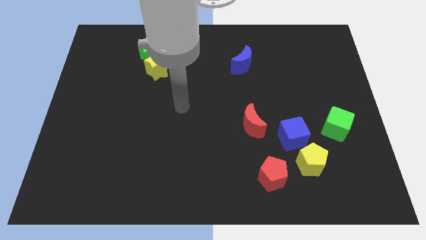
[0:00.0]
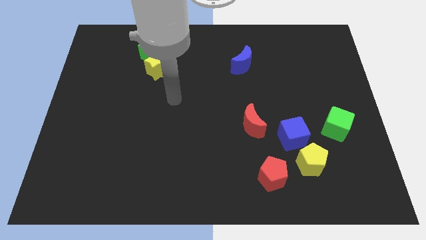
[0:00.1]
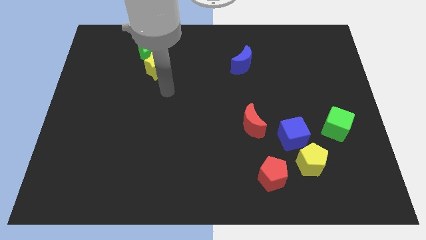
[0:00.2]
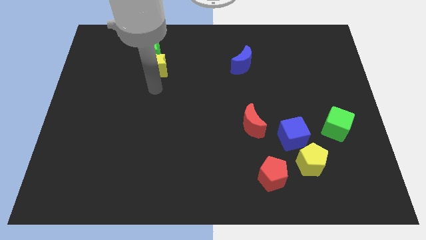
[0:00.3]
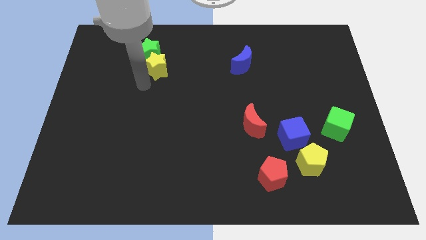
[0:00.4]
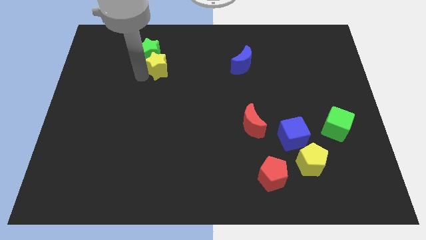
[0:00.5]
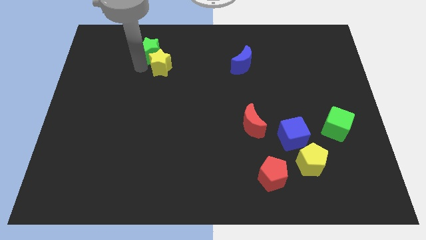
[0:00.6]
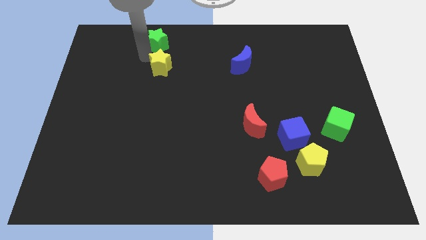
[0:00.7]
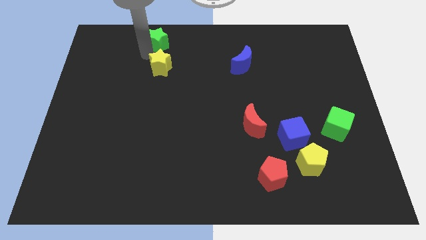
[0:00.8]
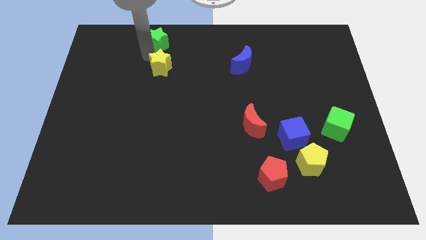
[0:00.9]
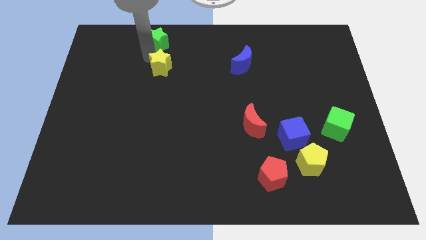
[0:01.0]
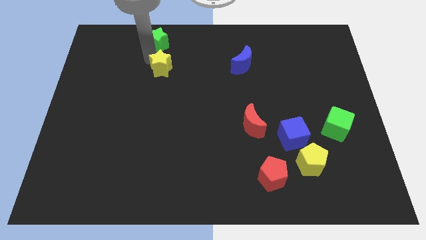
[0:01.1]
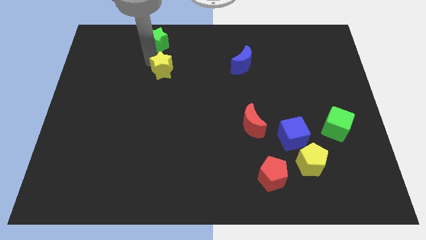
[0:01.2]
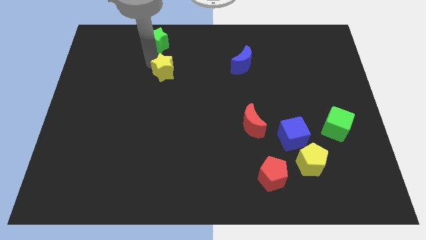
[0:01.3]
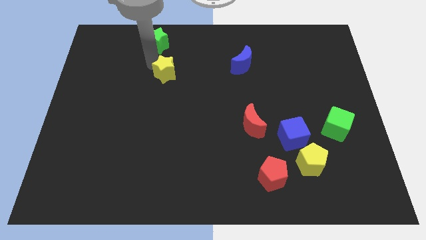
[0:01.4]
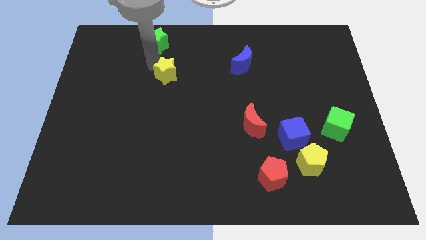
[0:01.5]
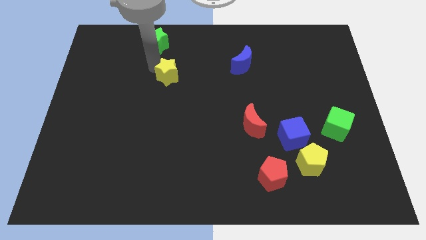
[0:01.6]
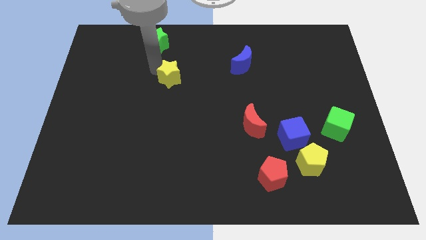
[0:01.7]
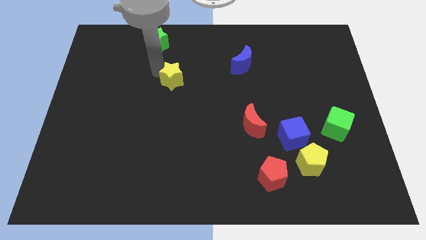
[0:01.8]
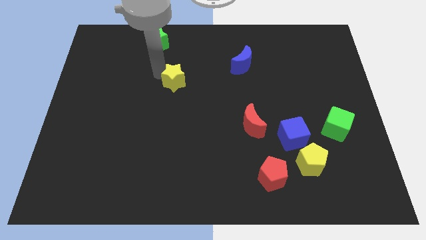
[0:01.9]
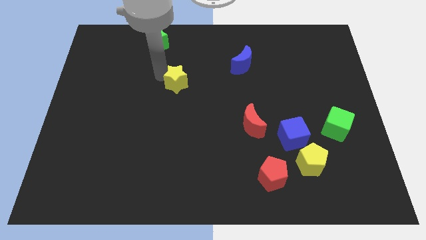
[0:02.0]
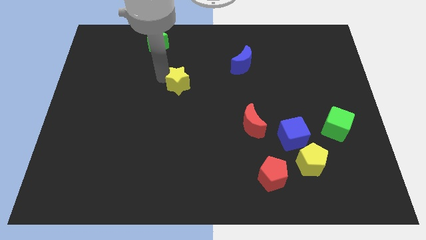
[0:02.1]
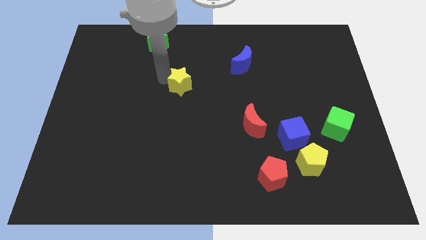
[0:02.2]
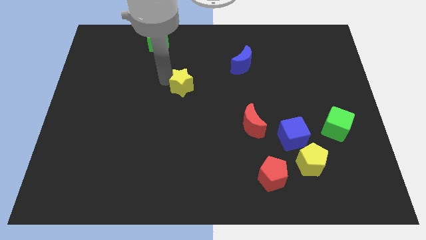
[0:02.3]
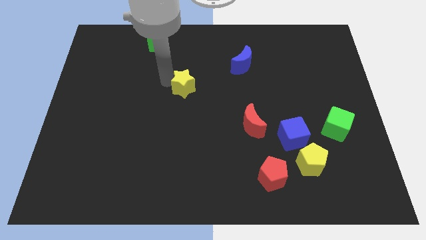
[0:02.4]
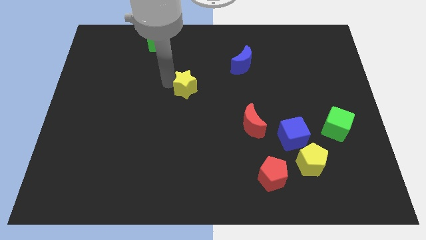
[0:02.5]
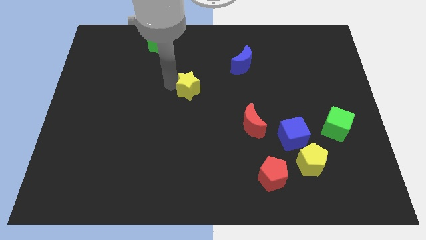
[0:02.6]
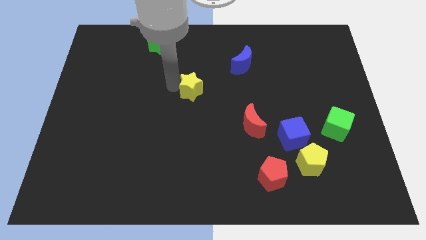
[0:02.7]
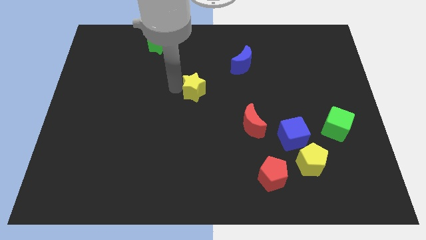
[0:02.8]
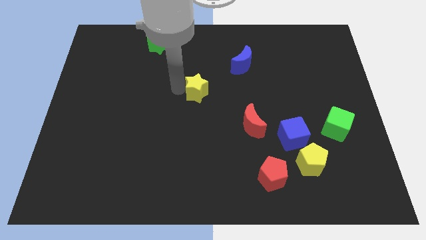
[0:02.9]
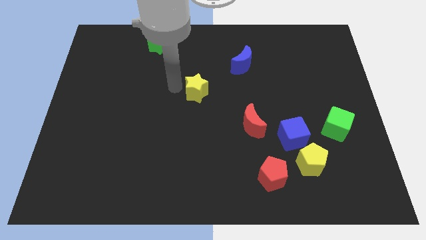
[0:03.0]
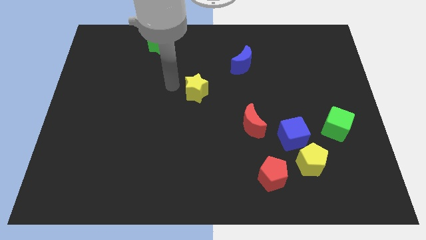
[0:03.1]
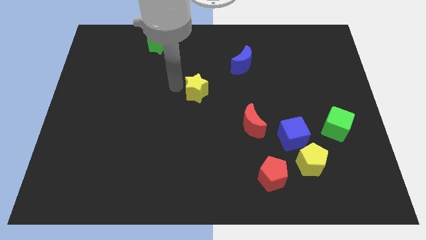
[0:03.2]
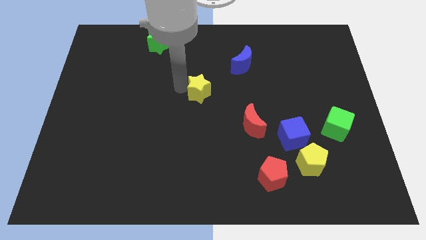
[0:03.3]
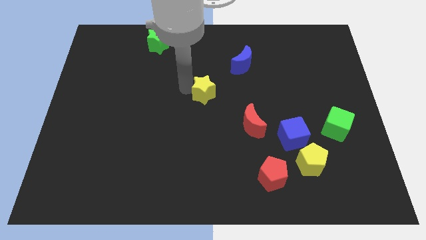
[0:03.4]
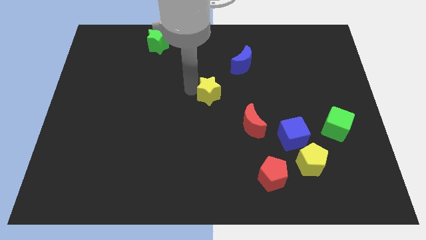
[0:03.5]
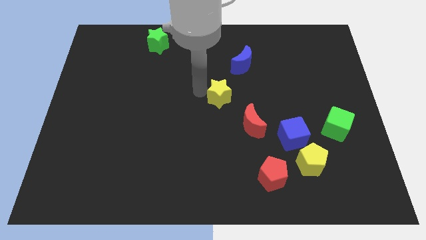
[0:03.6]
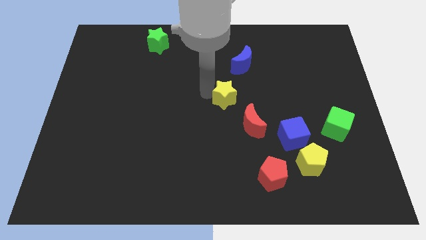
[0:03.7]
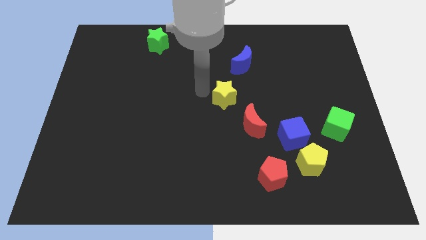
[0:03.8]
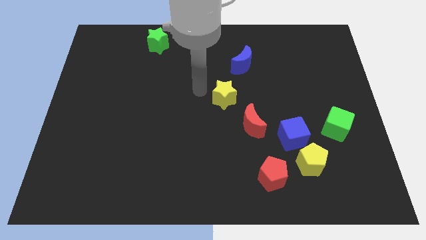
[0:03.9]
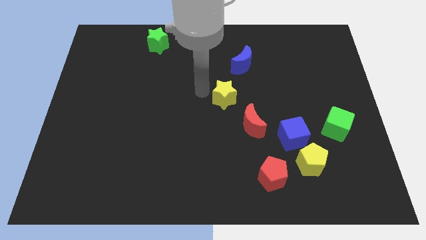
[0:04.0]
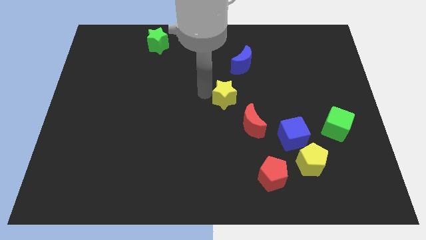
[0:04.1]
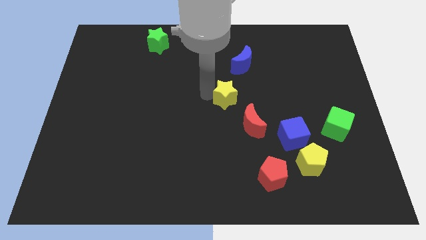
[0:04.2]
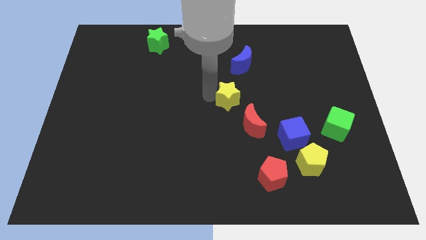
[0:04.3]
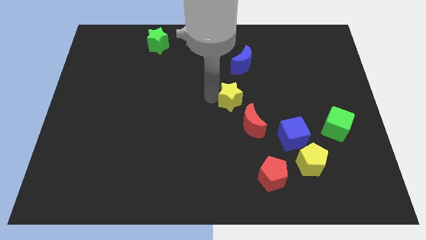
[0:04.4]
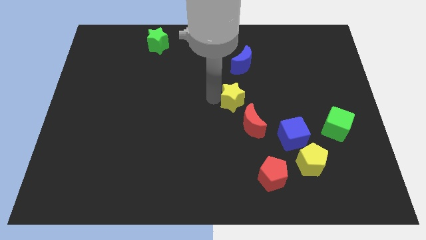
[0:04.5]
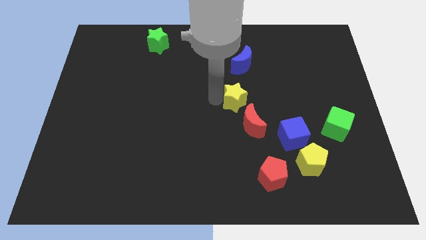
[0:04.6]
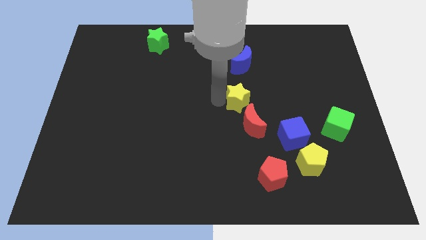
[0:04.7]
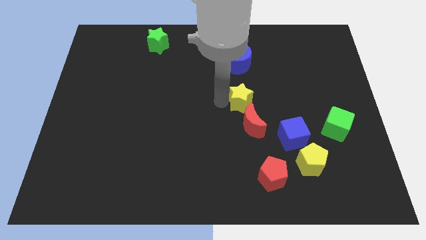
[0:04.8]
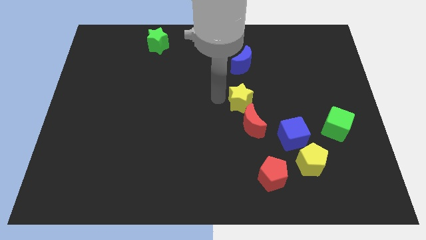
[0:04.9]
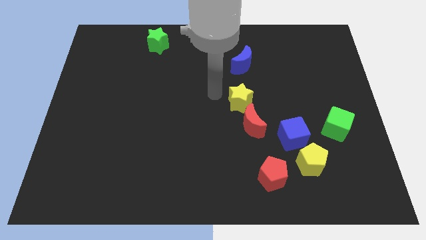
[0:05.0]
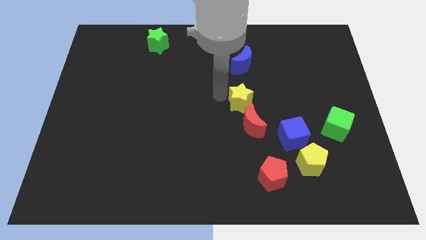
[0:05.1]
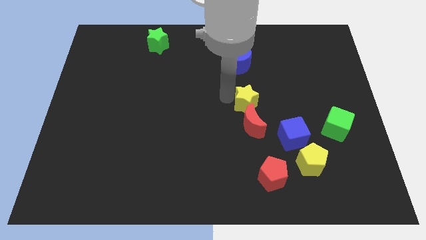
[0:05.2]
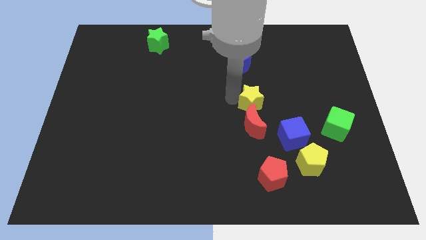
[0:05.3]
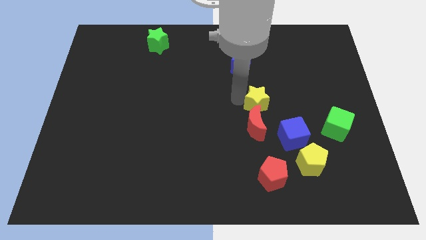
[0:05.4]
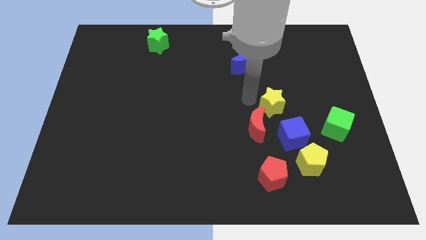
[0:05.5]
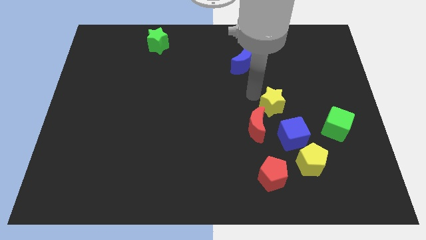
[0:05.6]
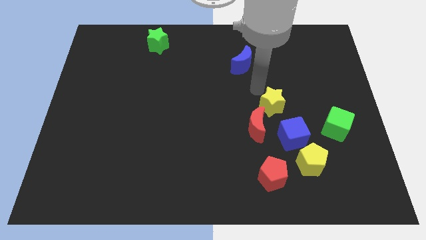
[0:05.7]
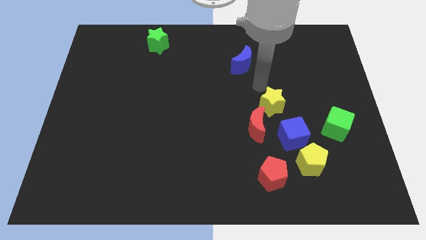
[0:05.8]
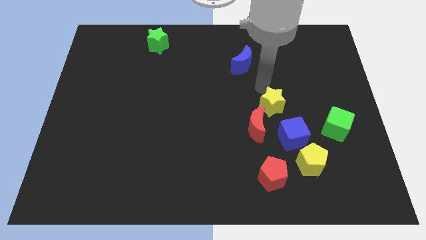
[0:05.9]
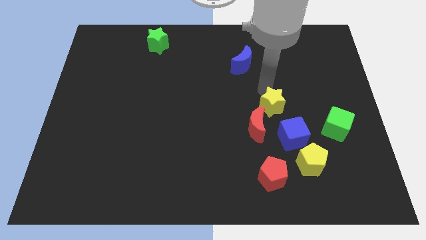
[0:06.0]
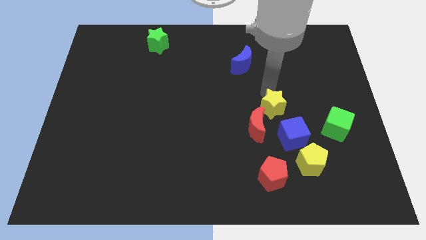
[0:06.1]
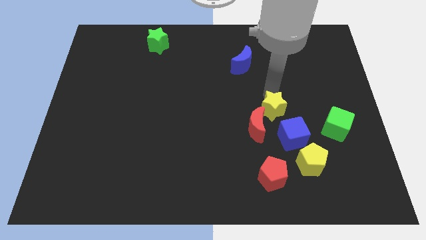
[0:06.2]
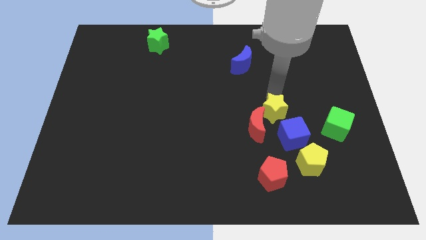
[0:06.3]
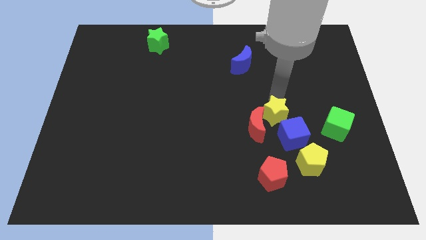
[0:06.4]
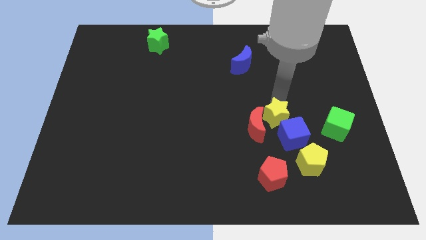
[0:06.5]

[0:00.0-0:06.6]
put the yellow star to the blue cube

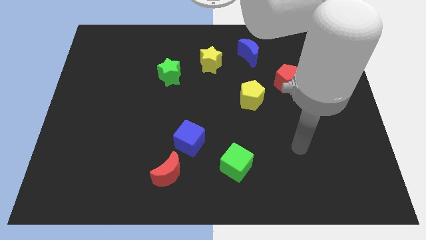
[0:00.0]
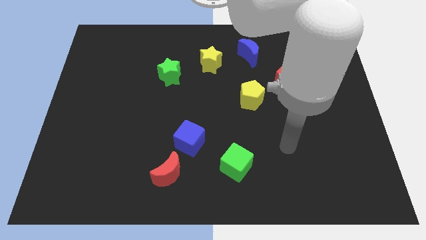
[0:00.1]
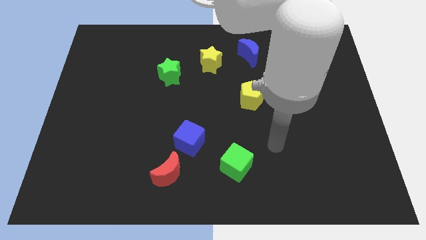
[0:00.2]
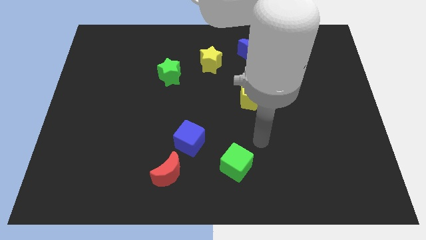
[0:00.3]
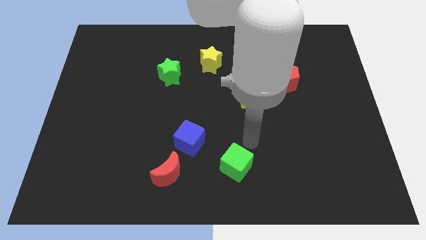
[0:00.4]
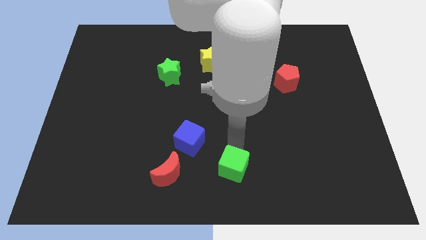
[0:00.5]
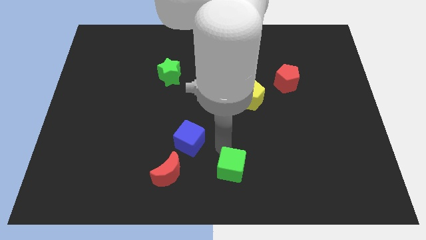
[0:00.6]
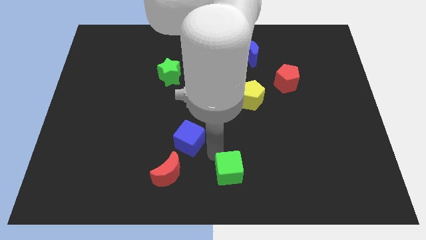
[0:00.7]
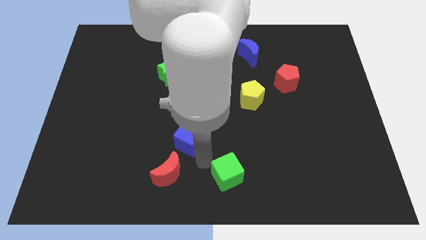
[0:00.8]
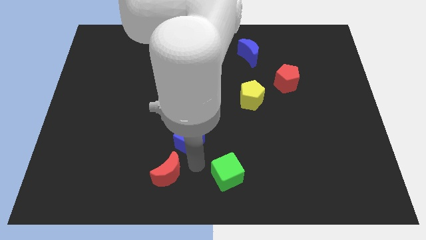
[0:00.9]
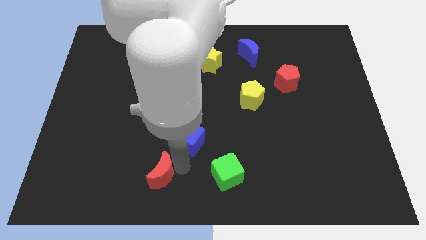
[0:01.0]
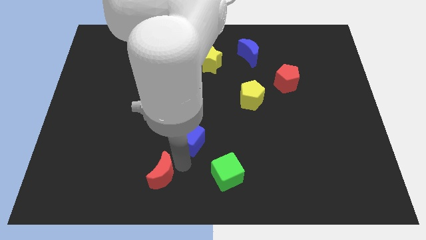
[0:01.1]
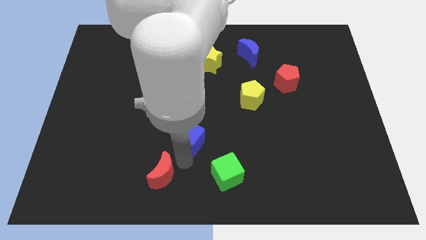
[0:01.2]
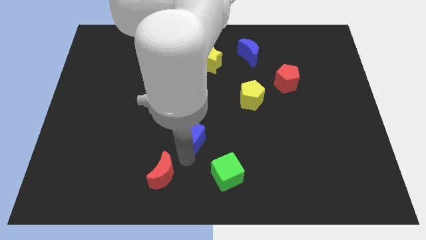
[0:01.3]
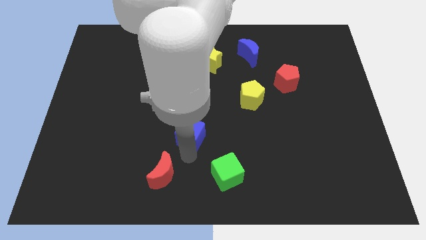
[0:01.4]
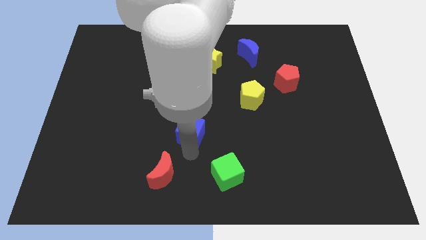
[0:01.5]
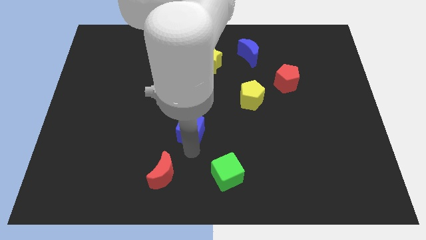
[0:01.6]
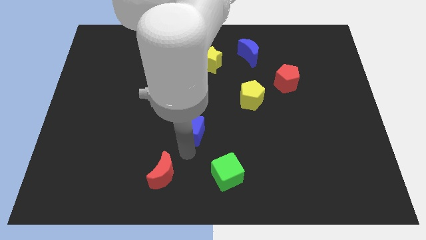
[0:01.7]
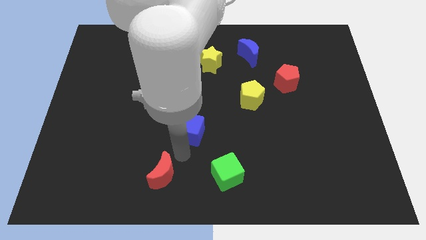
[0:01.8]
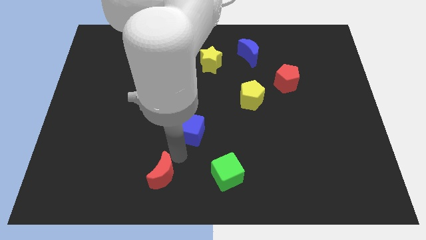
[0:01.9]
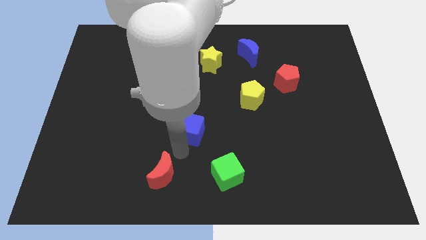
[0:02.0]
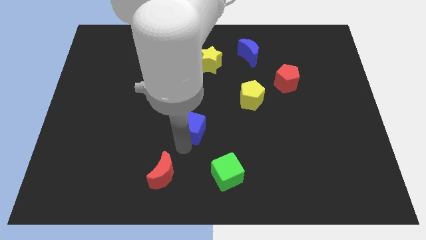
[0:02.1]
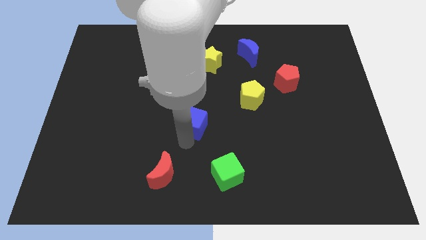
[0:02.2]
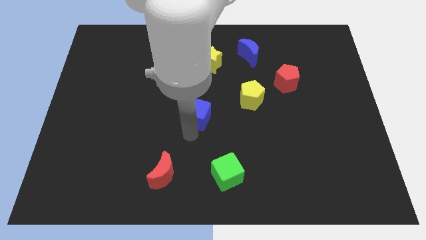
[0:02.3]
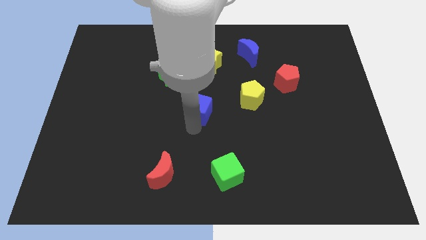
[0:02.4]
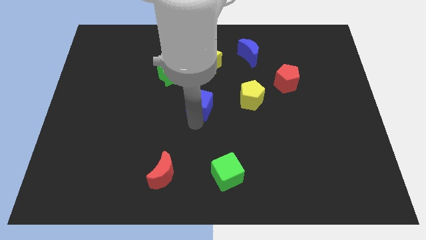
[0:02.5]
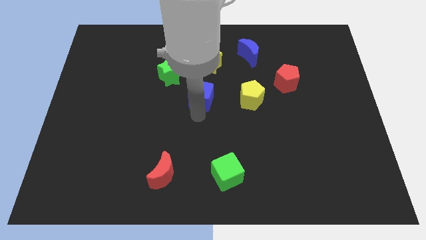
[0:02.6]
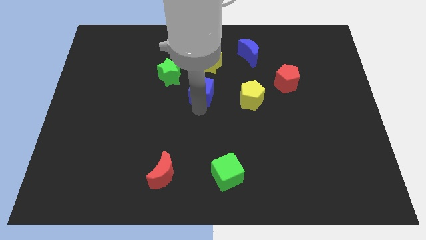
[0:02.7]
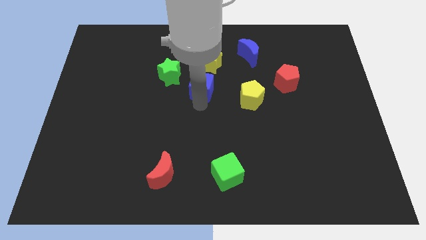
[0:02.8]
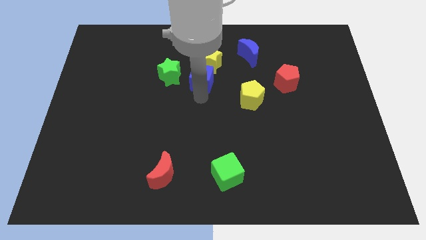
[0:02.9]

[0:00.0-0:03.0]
push the blue cube close to the yellow star
